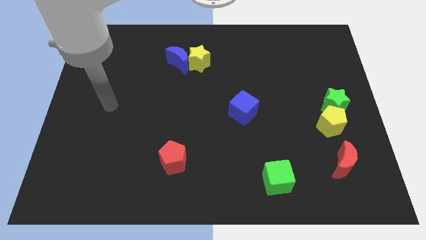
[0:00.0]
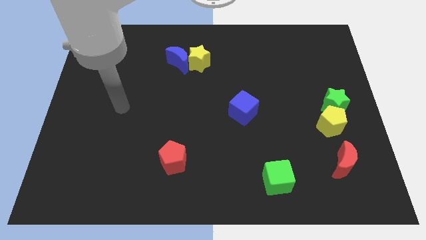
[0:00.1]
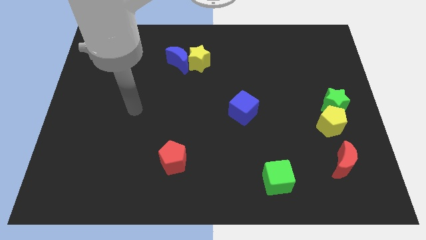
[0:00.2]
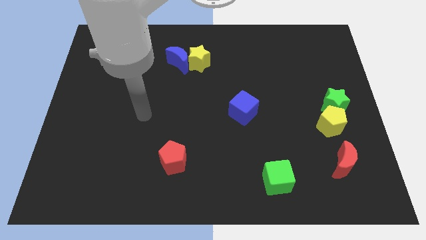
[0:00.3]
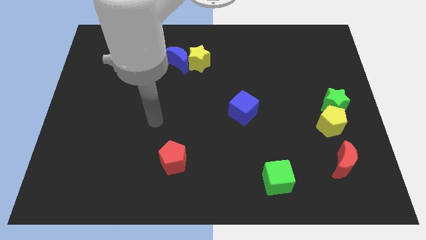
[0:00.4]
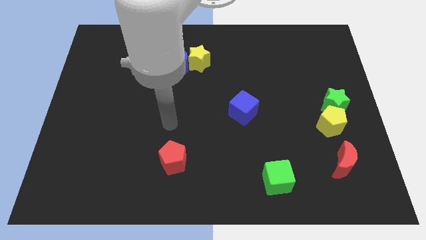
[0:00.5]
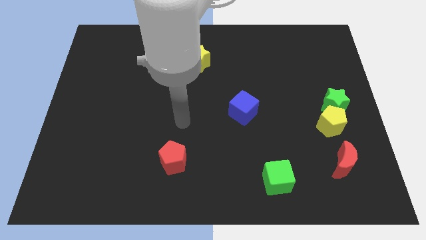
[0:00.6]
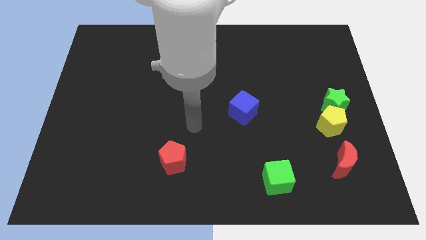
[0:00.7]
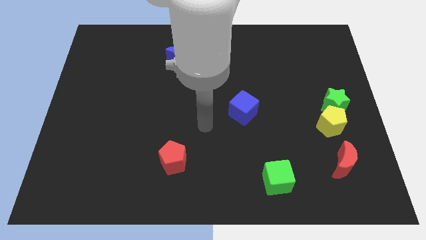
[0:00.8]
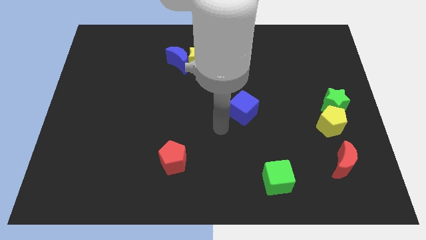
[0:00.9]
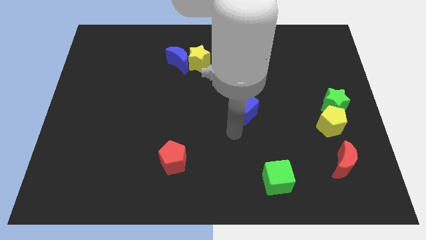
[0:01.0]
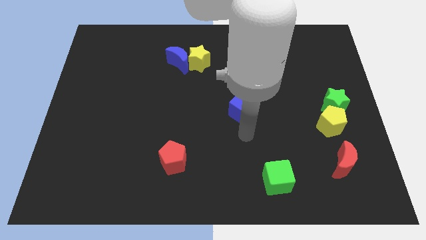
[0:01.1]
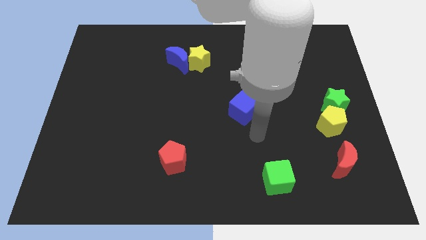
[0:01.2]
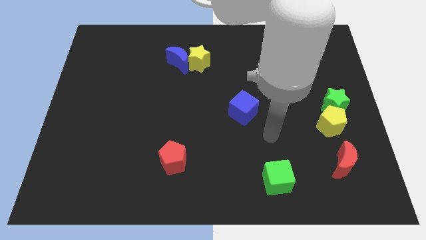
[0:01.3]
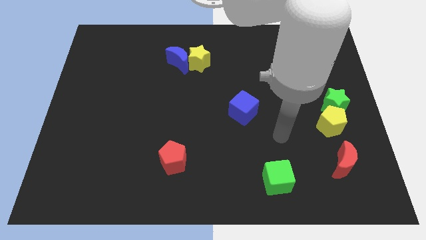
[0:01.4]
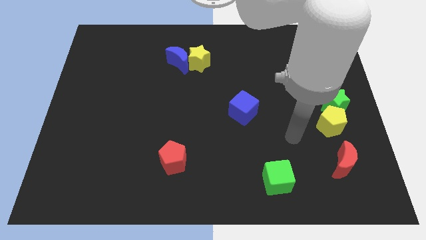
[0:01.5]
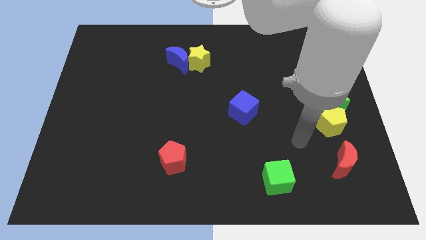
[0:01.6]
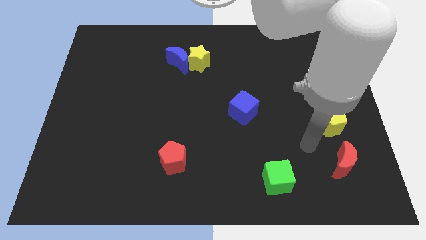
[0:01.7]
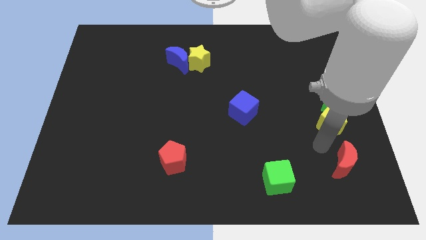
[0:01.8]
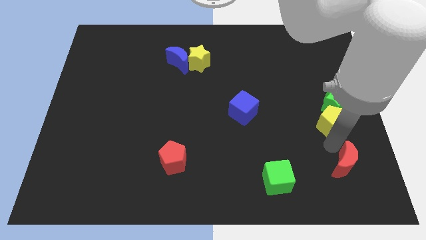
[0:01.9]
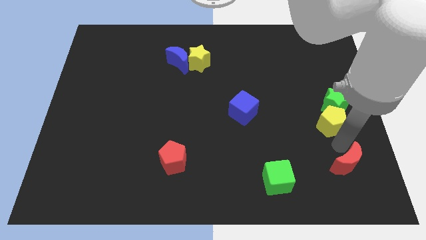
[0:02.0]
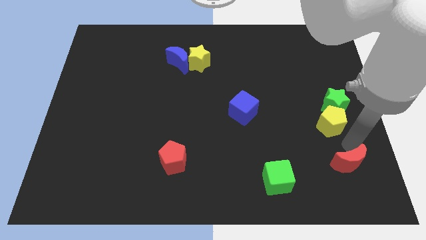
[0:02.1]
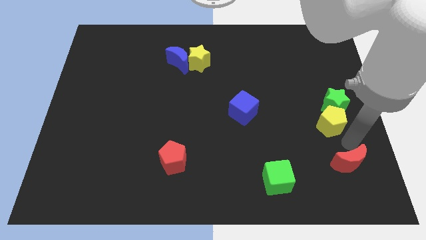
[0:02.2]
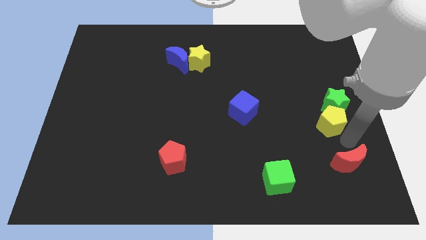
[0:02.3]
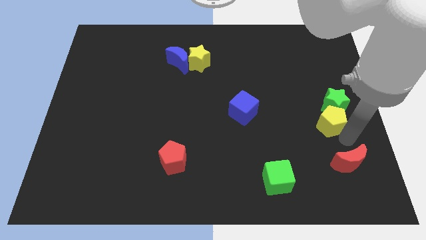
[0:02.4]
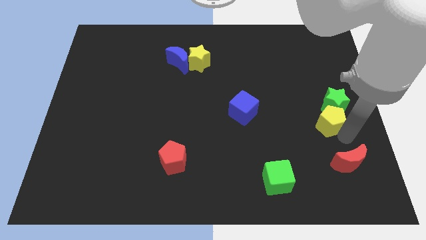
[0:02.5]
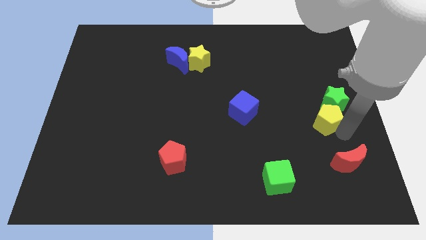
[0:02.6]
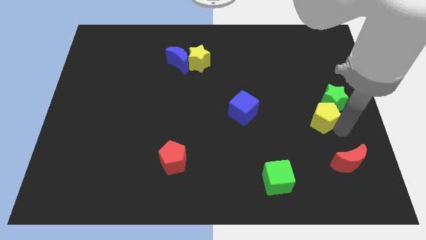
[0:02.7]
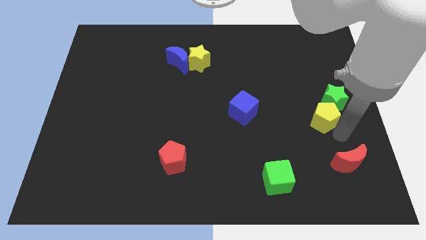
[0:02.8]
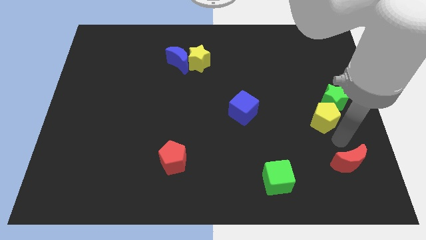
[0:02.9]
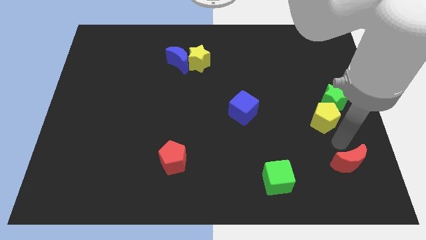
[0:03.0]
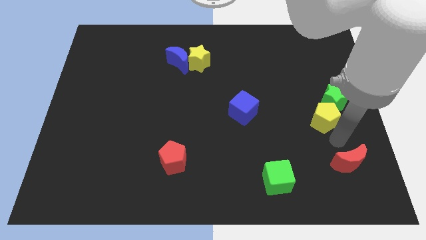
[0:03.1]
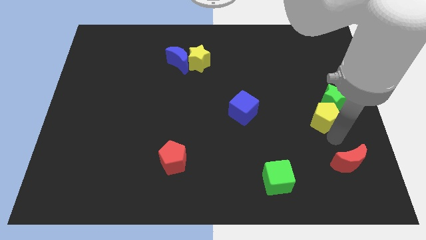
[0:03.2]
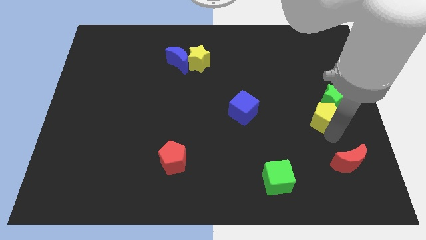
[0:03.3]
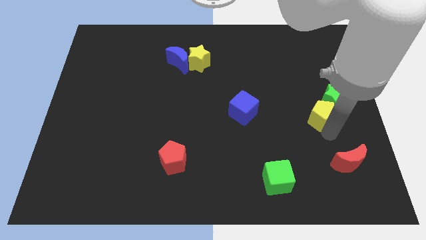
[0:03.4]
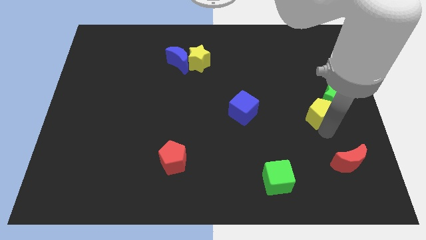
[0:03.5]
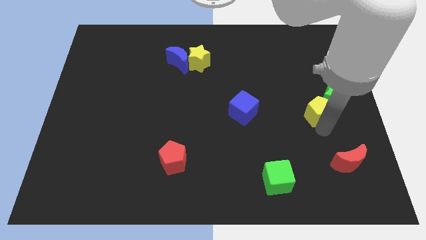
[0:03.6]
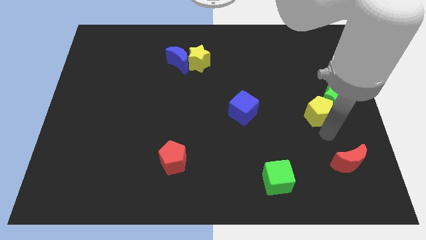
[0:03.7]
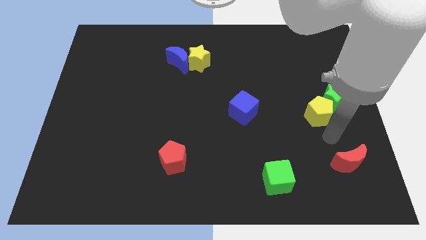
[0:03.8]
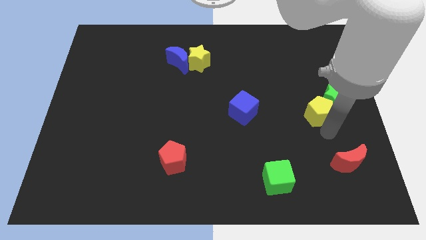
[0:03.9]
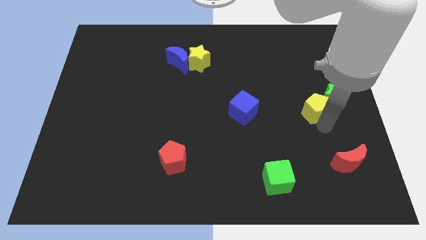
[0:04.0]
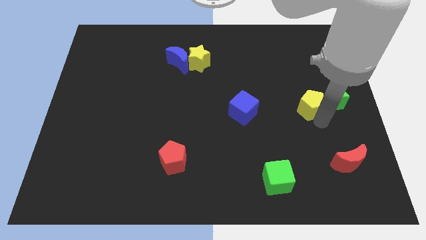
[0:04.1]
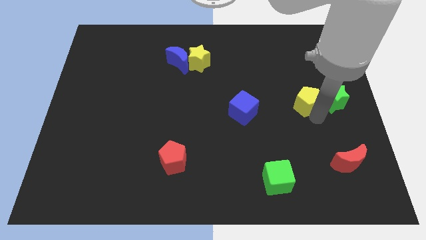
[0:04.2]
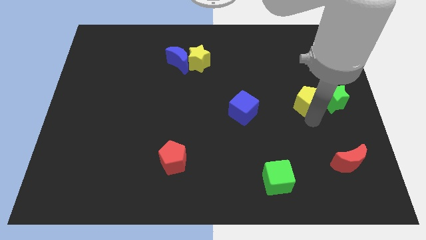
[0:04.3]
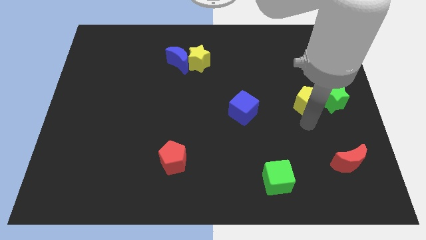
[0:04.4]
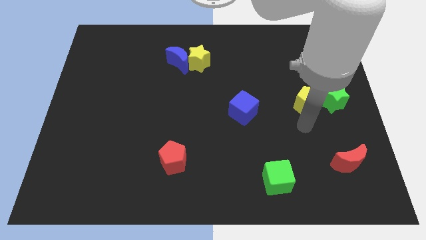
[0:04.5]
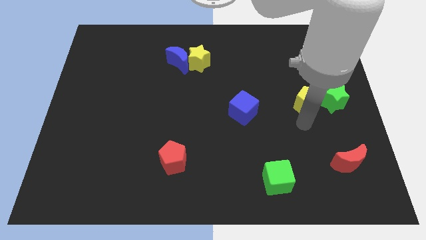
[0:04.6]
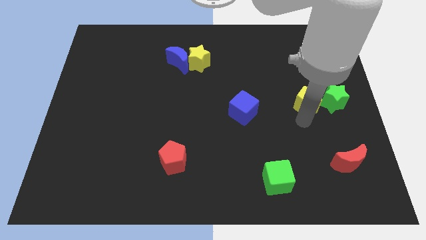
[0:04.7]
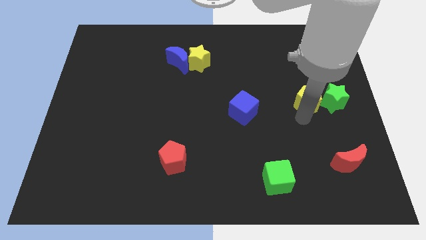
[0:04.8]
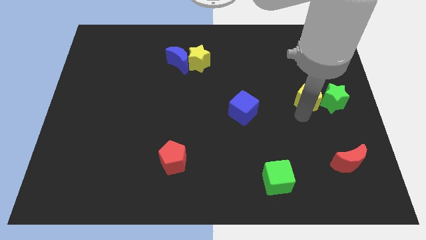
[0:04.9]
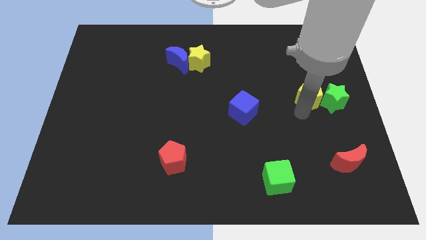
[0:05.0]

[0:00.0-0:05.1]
slide the yellow pentagon slightly up

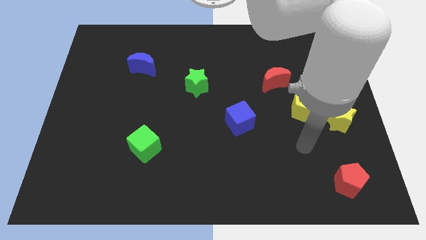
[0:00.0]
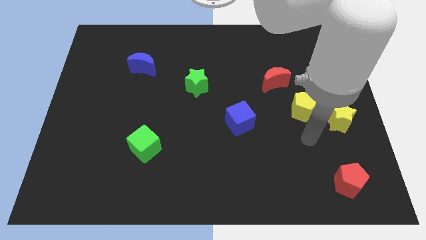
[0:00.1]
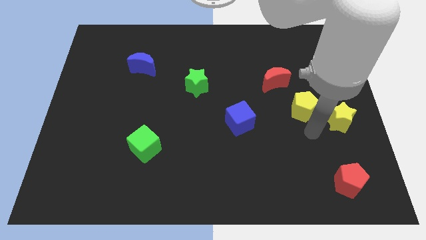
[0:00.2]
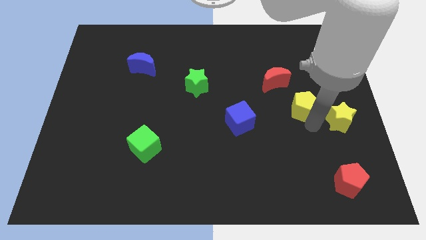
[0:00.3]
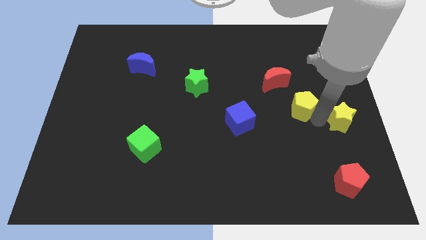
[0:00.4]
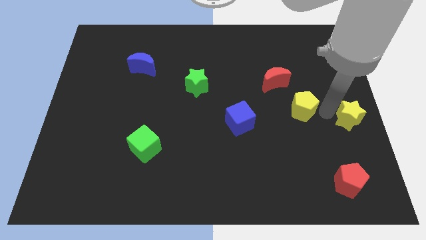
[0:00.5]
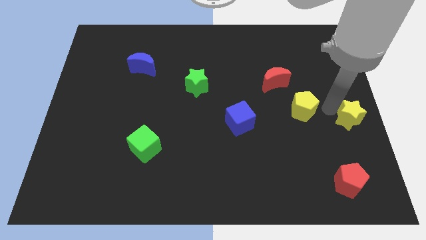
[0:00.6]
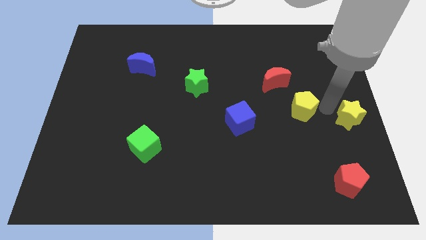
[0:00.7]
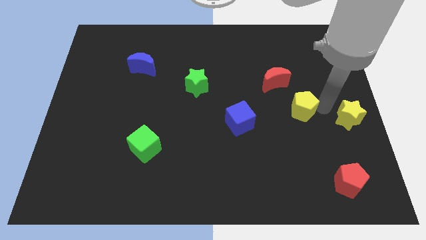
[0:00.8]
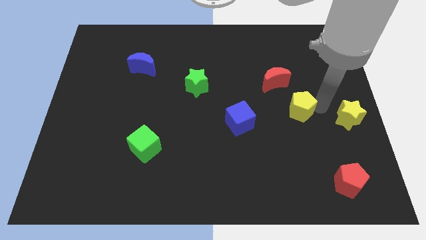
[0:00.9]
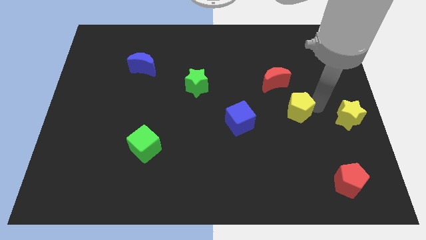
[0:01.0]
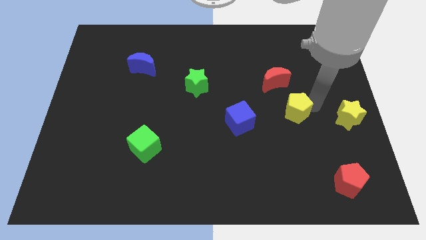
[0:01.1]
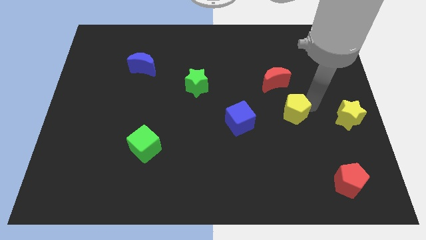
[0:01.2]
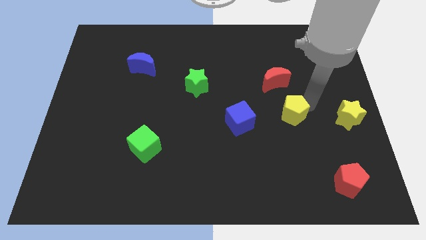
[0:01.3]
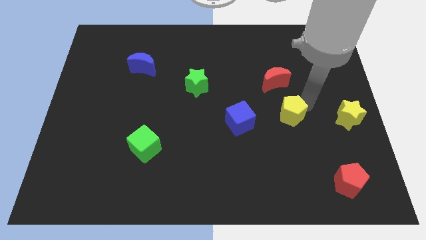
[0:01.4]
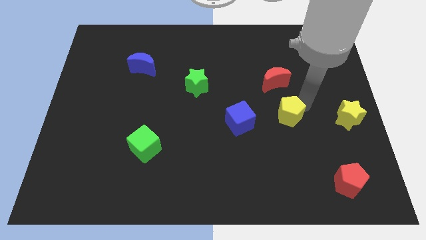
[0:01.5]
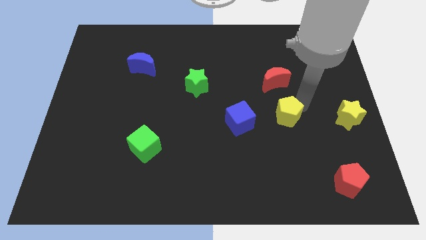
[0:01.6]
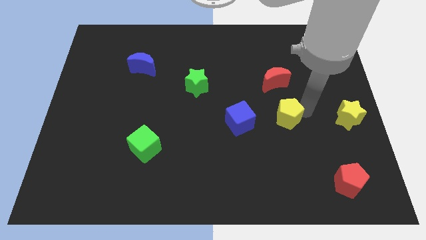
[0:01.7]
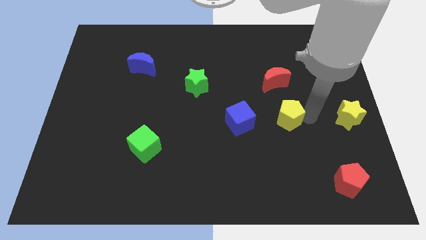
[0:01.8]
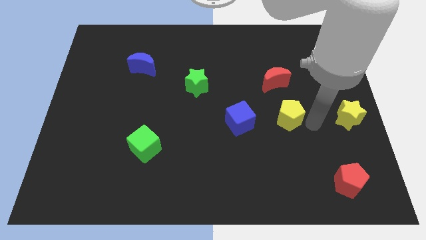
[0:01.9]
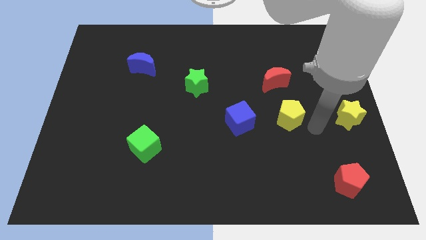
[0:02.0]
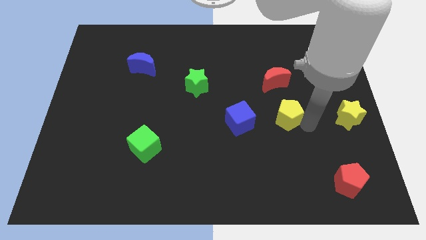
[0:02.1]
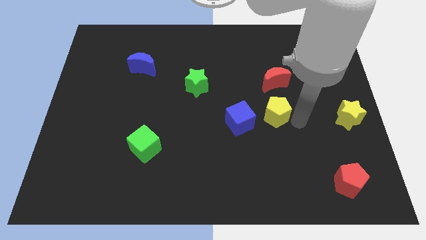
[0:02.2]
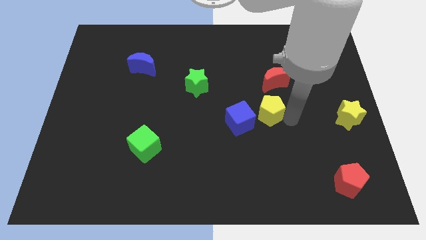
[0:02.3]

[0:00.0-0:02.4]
slightly move the yellow pentagon to the left

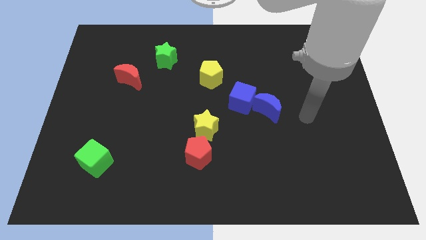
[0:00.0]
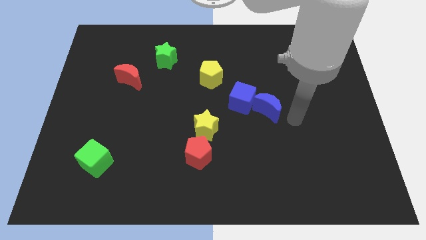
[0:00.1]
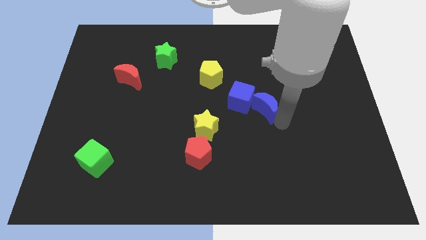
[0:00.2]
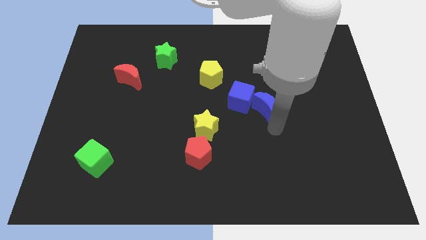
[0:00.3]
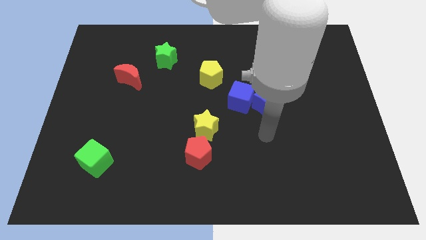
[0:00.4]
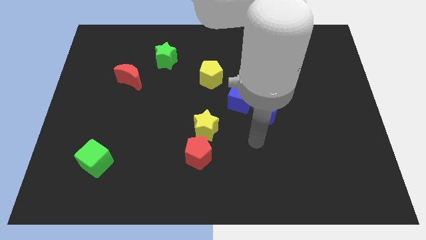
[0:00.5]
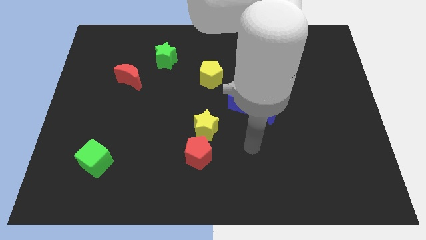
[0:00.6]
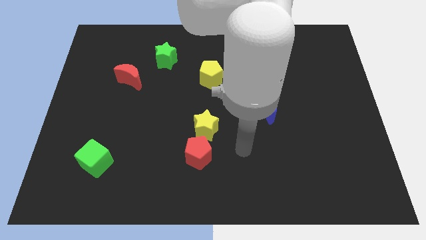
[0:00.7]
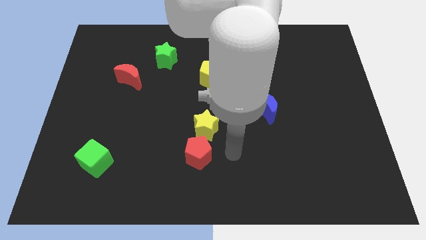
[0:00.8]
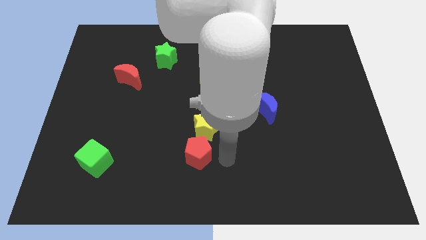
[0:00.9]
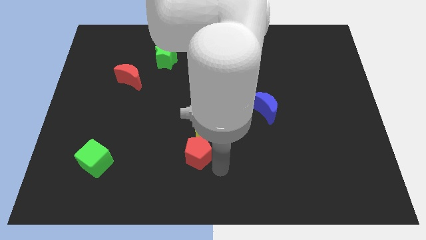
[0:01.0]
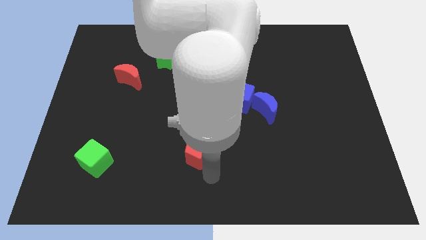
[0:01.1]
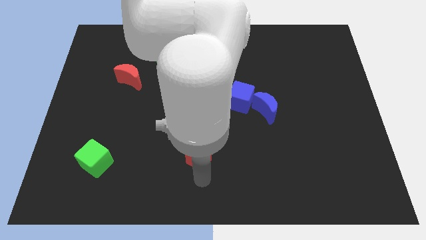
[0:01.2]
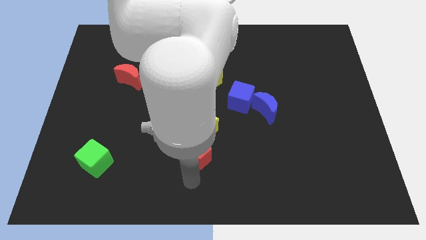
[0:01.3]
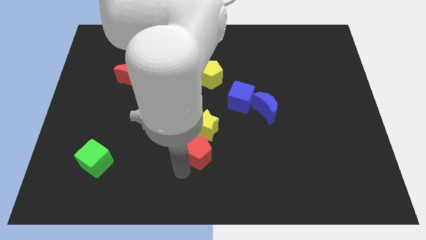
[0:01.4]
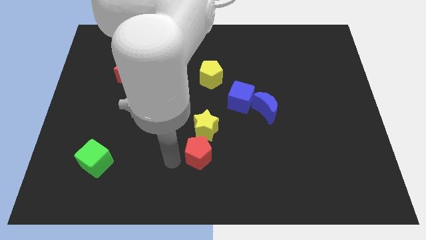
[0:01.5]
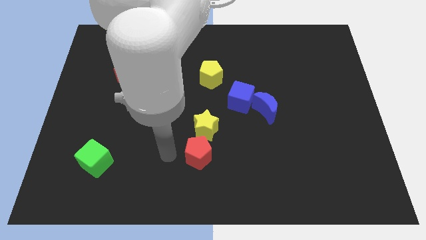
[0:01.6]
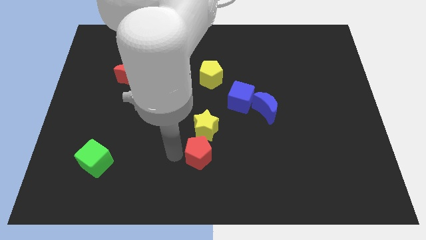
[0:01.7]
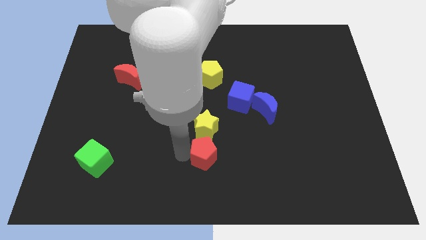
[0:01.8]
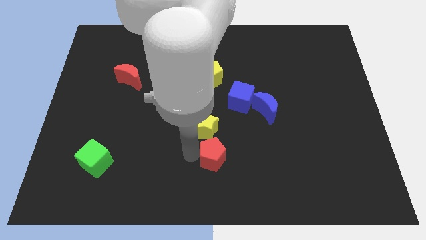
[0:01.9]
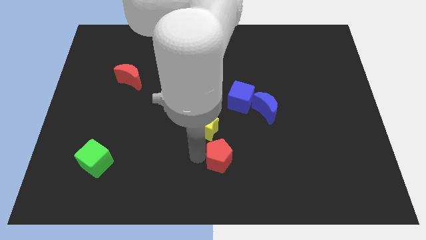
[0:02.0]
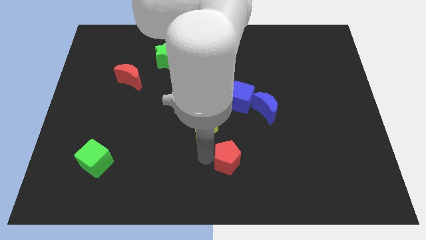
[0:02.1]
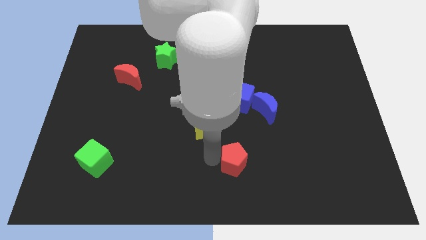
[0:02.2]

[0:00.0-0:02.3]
slide the red pentagon a little to the right
